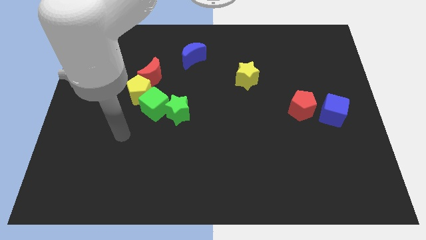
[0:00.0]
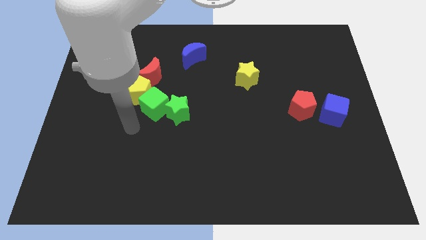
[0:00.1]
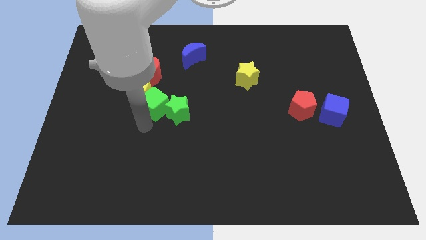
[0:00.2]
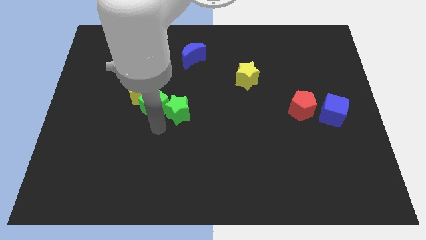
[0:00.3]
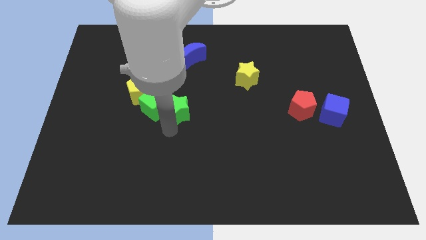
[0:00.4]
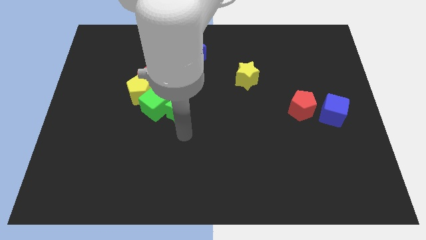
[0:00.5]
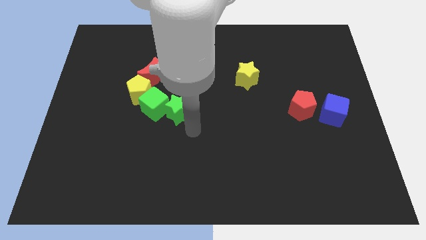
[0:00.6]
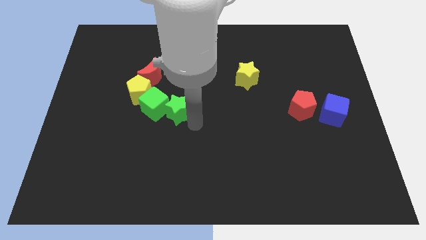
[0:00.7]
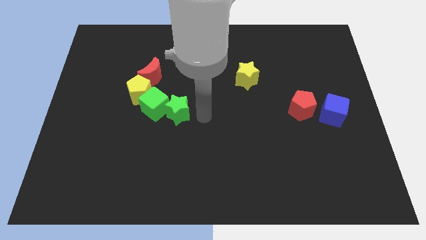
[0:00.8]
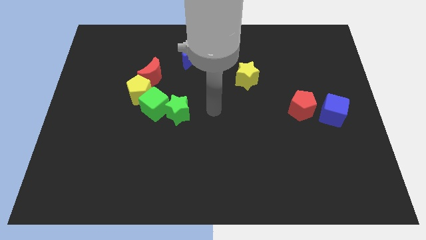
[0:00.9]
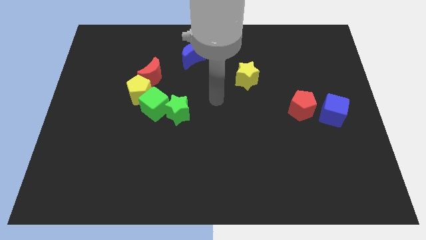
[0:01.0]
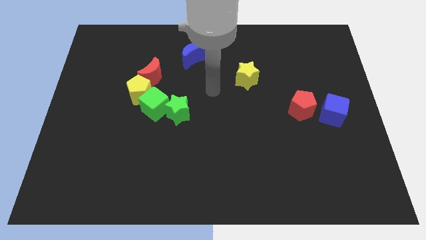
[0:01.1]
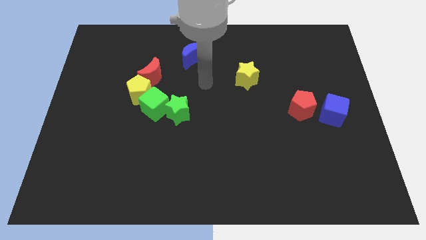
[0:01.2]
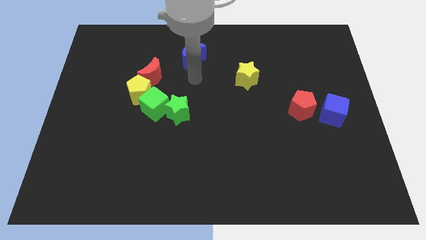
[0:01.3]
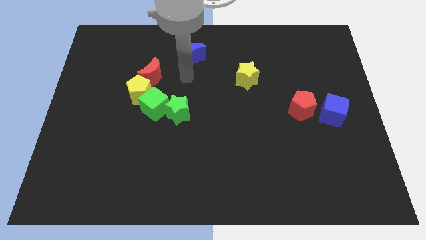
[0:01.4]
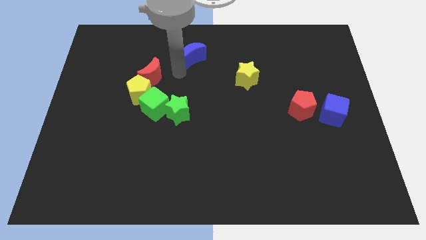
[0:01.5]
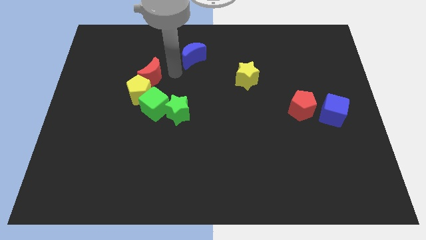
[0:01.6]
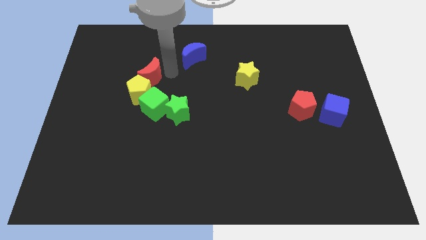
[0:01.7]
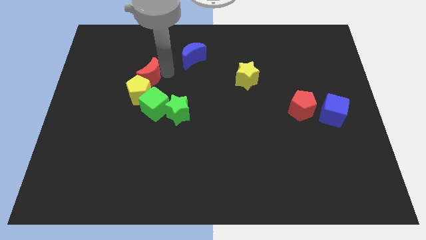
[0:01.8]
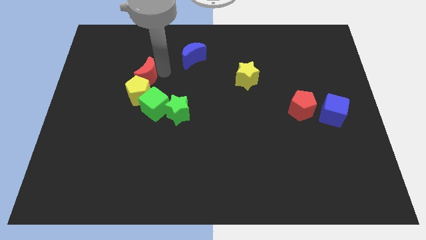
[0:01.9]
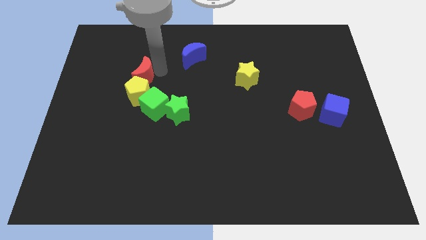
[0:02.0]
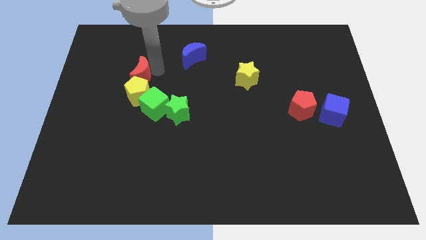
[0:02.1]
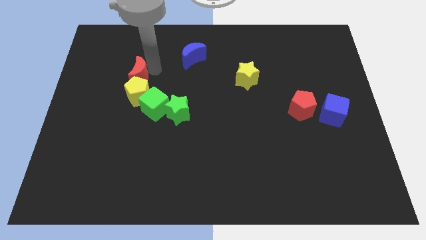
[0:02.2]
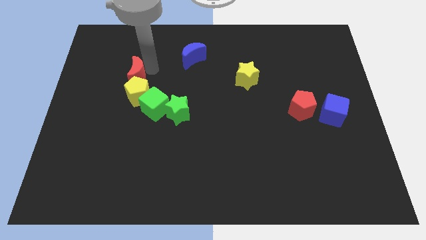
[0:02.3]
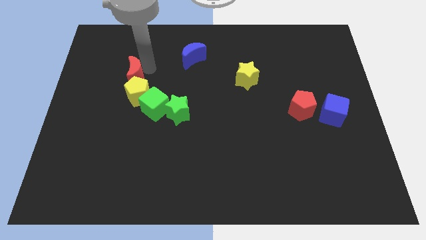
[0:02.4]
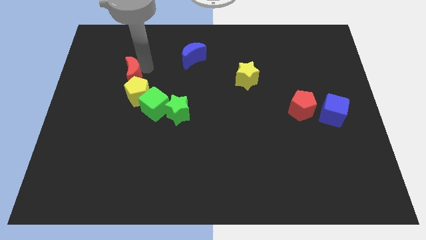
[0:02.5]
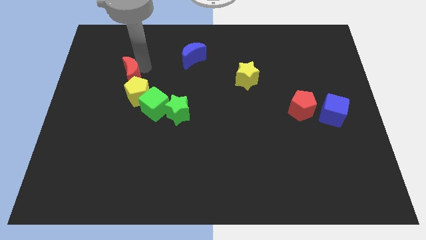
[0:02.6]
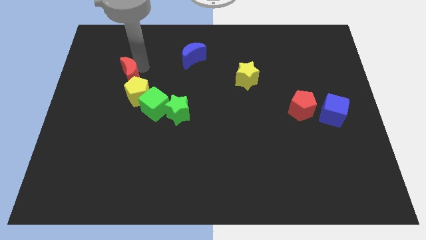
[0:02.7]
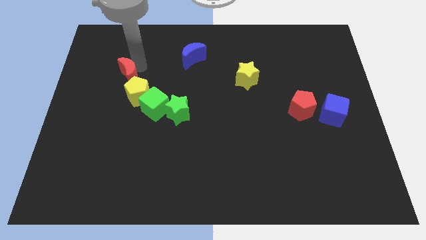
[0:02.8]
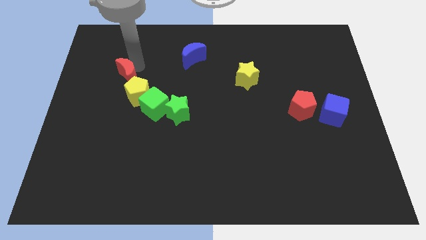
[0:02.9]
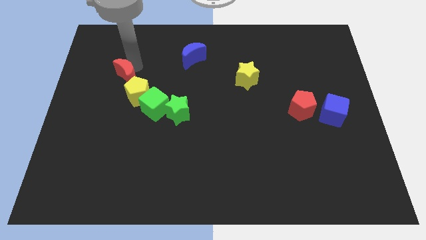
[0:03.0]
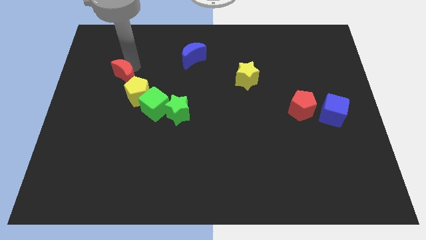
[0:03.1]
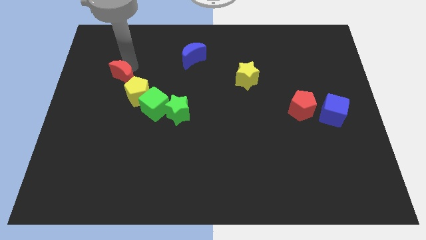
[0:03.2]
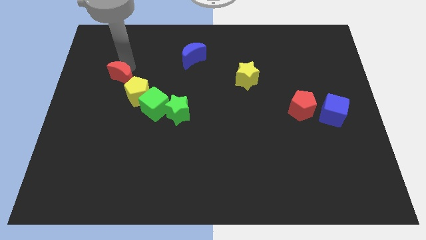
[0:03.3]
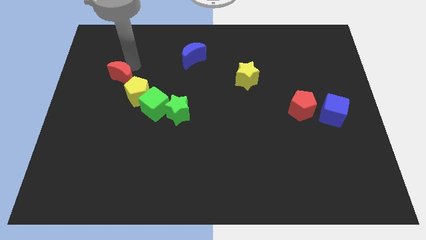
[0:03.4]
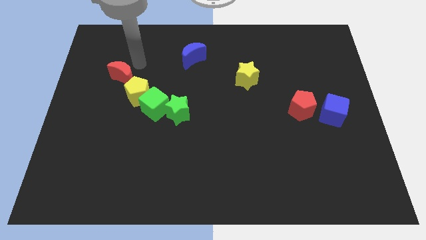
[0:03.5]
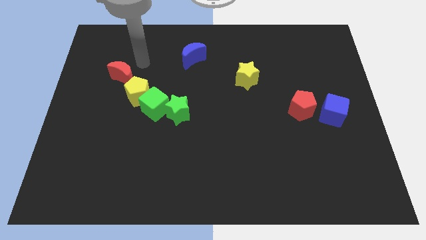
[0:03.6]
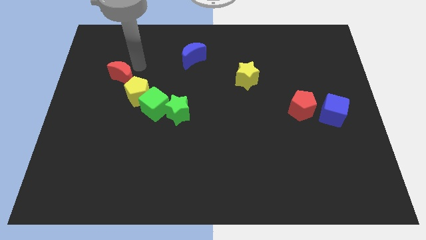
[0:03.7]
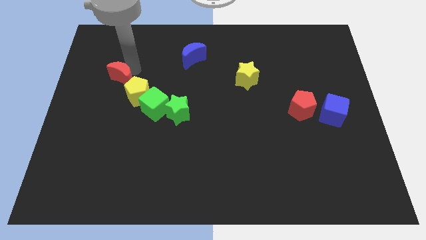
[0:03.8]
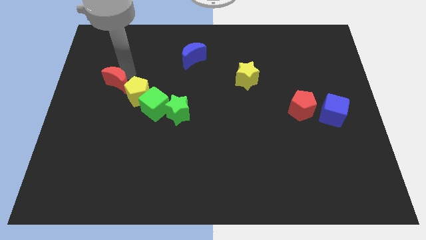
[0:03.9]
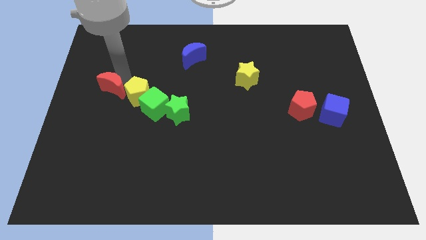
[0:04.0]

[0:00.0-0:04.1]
slightly slide the red moon diagonally downwards and to the left

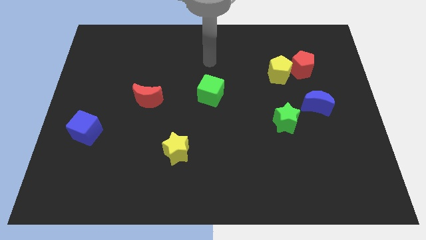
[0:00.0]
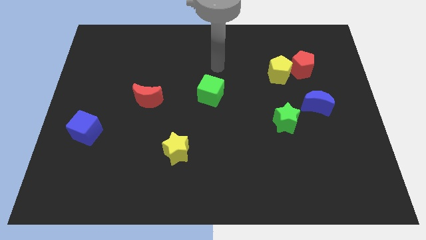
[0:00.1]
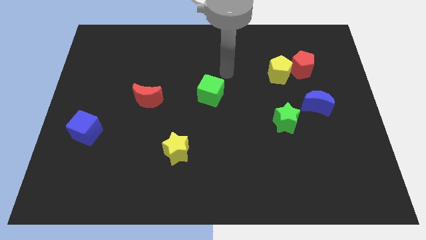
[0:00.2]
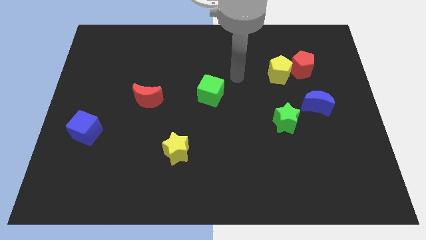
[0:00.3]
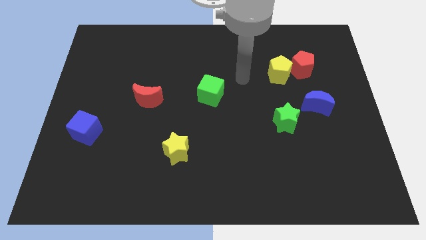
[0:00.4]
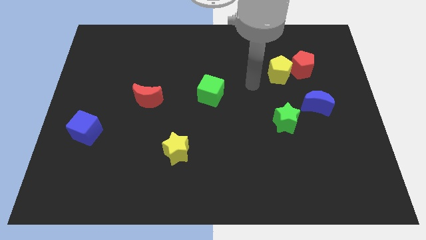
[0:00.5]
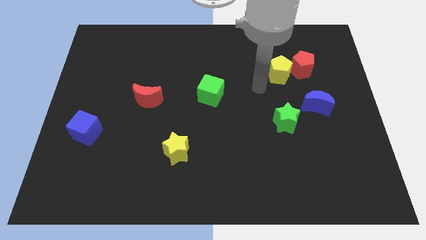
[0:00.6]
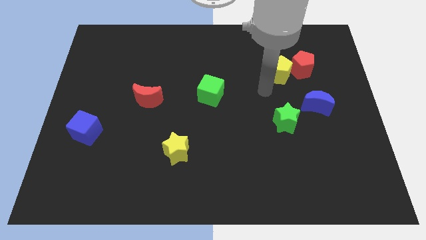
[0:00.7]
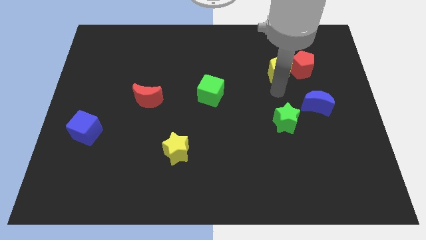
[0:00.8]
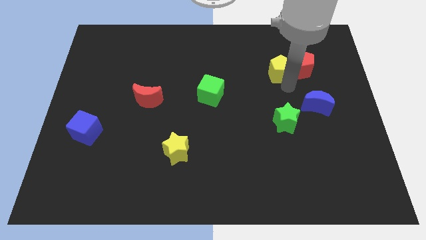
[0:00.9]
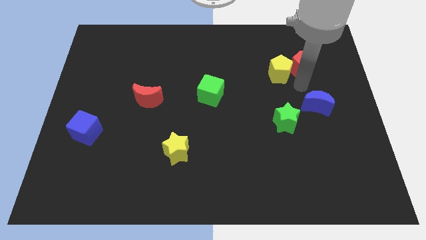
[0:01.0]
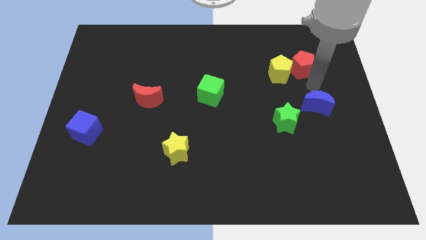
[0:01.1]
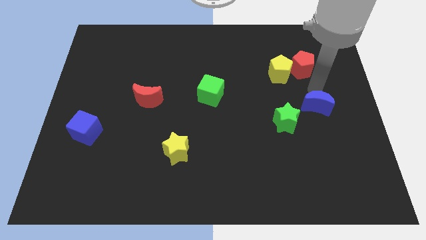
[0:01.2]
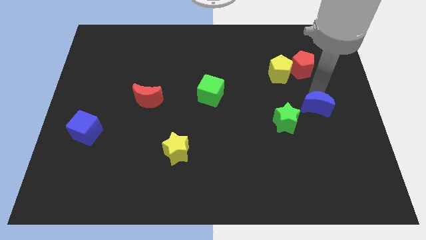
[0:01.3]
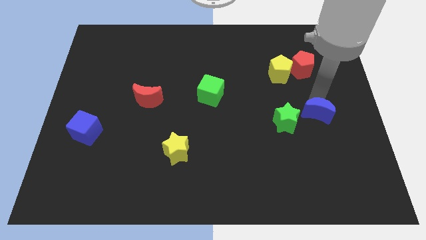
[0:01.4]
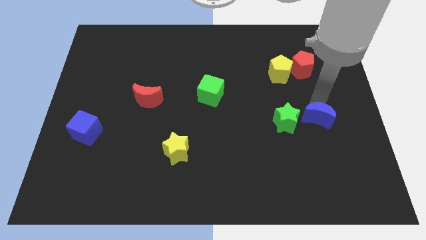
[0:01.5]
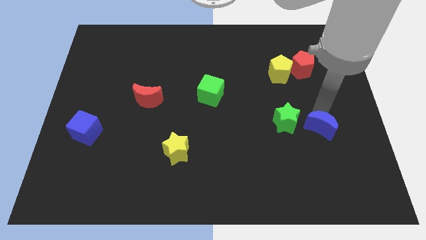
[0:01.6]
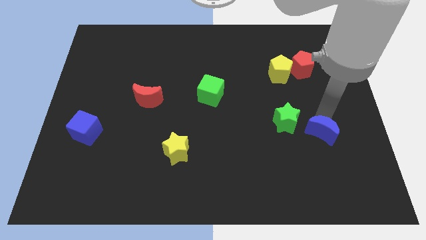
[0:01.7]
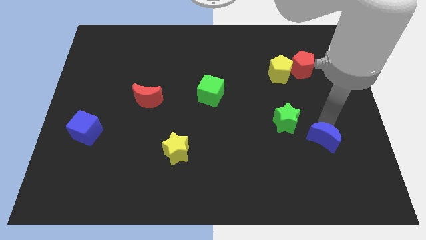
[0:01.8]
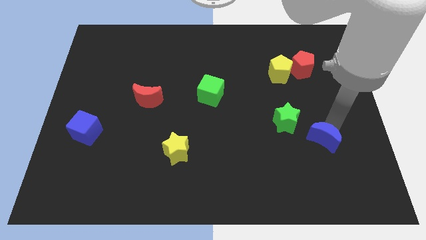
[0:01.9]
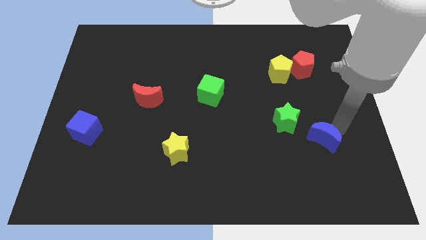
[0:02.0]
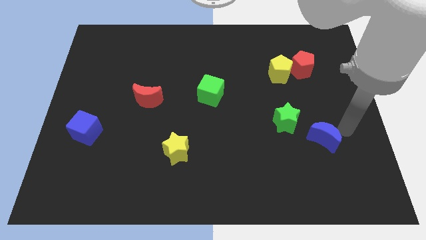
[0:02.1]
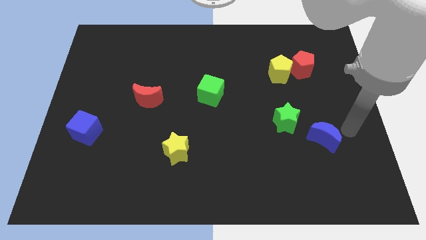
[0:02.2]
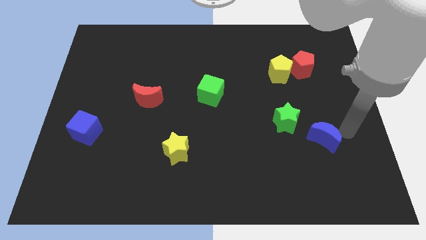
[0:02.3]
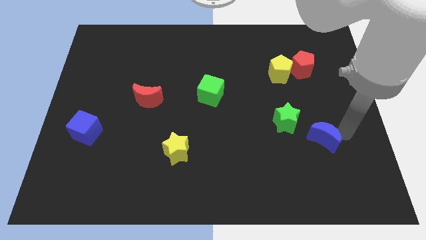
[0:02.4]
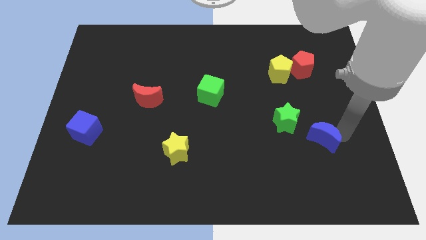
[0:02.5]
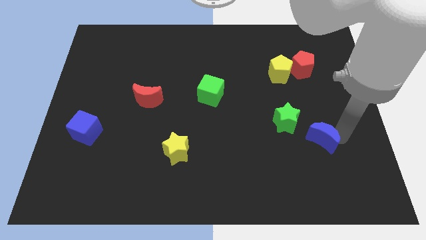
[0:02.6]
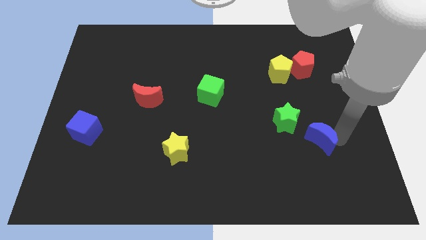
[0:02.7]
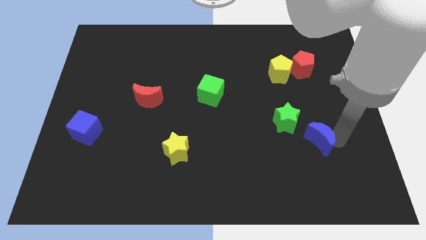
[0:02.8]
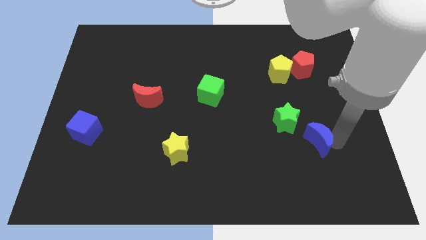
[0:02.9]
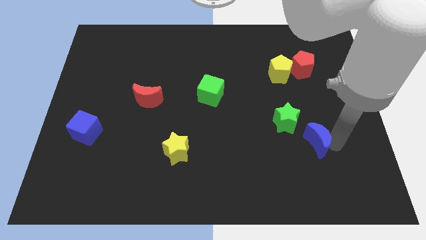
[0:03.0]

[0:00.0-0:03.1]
slightly slide the blue moon downwards and left diagonally

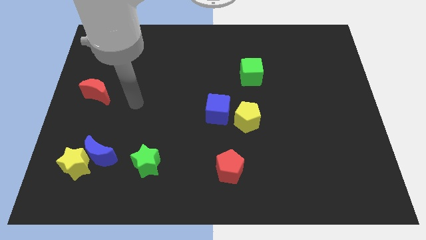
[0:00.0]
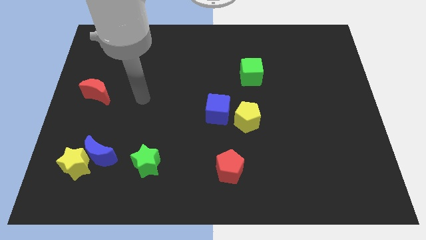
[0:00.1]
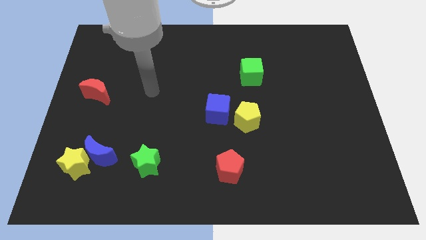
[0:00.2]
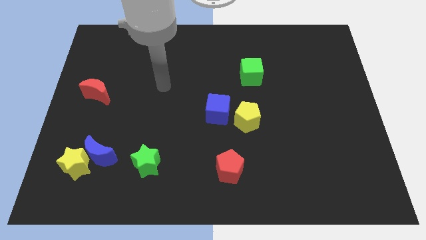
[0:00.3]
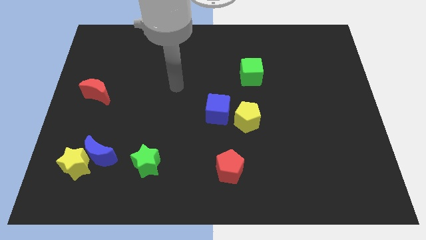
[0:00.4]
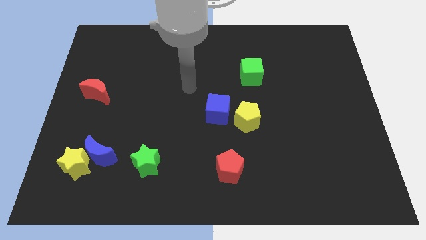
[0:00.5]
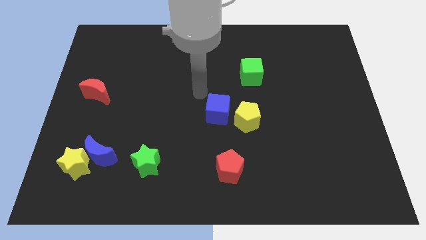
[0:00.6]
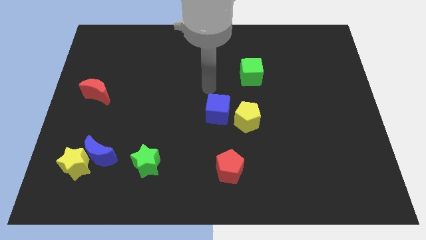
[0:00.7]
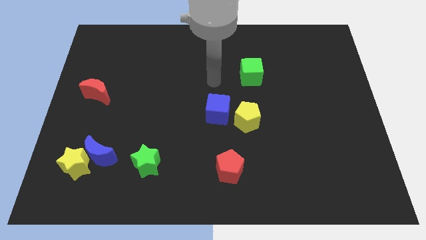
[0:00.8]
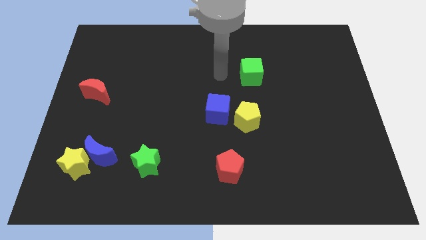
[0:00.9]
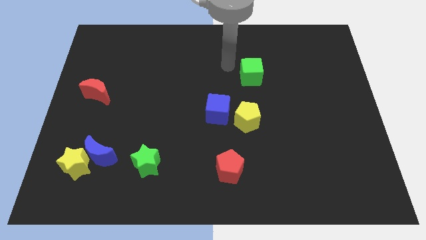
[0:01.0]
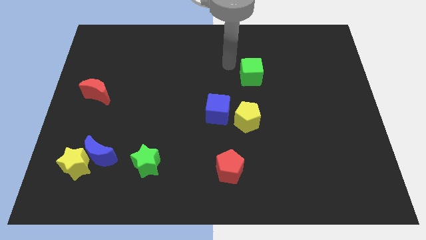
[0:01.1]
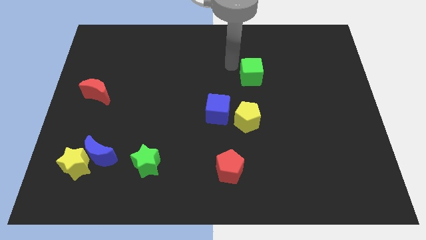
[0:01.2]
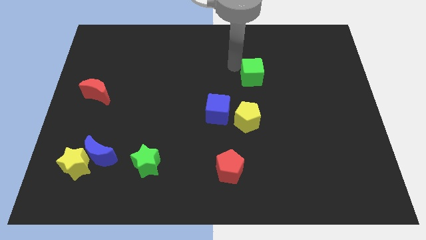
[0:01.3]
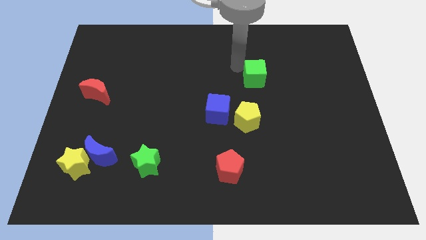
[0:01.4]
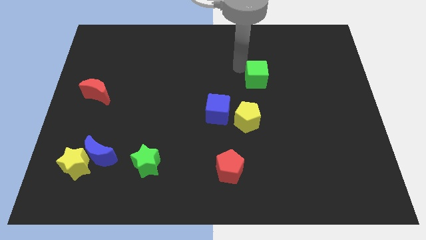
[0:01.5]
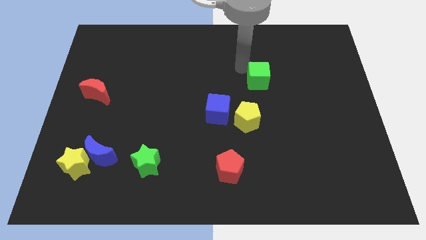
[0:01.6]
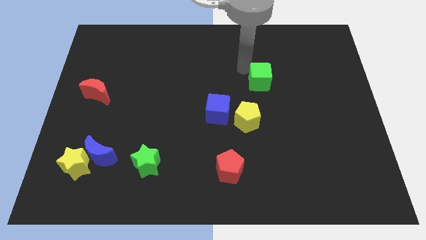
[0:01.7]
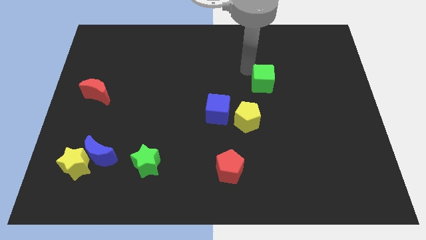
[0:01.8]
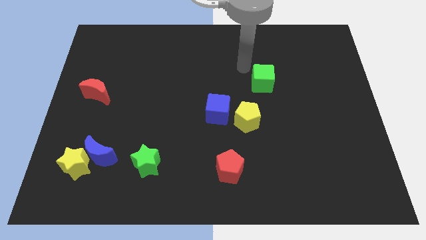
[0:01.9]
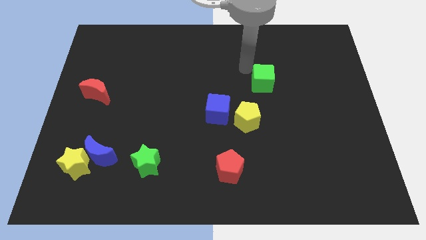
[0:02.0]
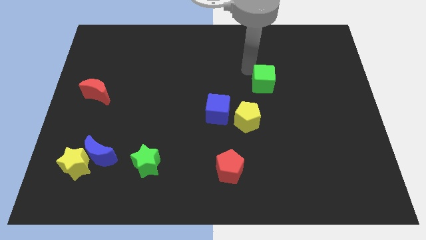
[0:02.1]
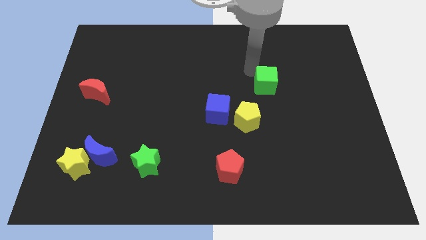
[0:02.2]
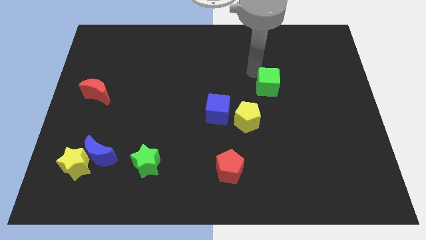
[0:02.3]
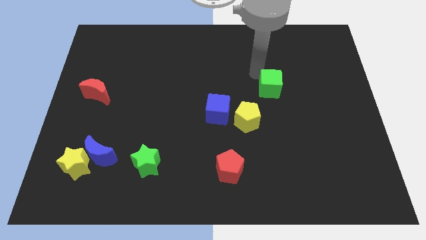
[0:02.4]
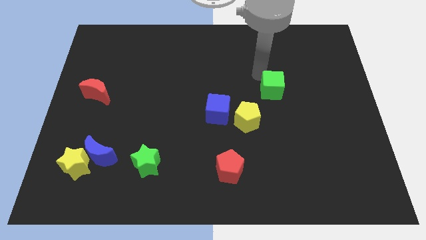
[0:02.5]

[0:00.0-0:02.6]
move the green cube a bit downwards and right
